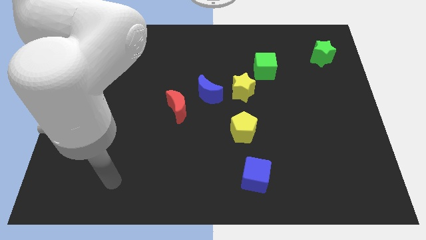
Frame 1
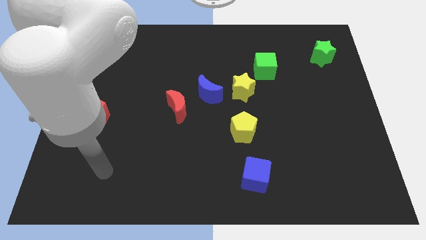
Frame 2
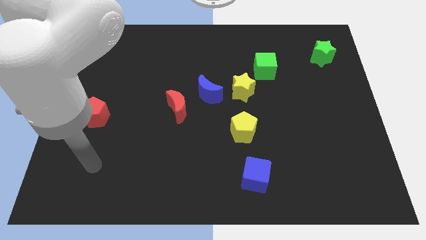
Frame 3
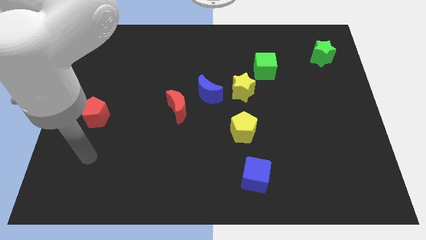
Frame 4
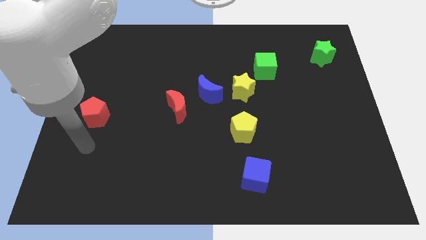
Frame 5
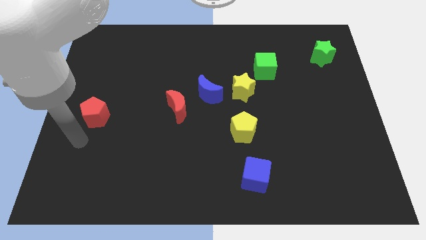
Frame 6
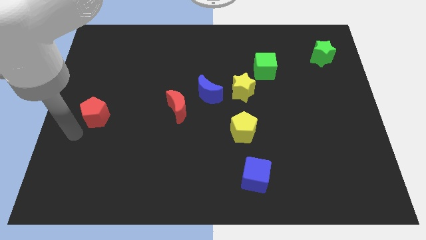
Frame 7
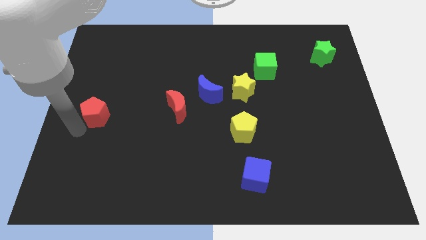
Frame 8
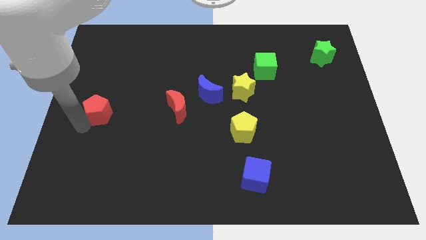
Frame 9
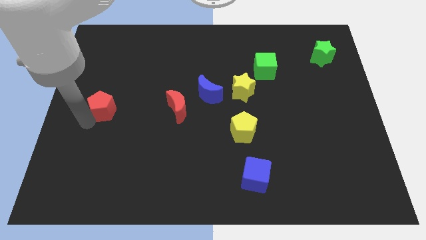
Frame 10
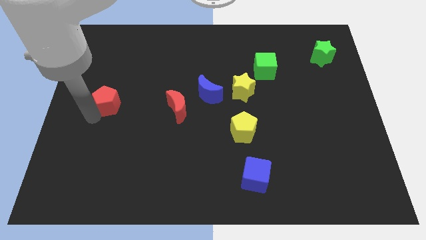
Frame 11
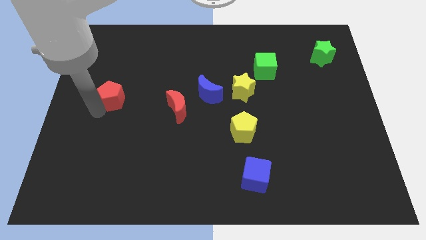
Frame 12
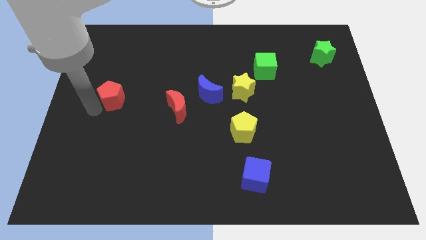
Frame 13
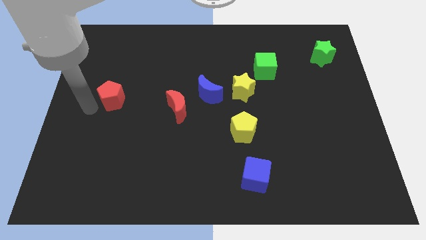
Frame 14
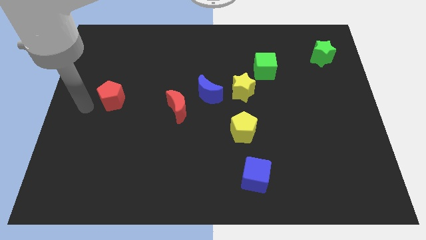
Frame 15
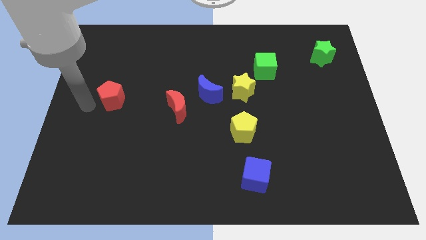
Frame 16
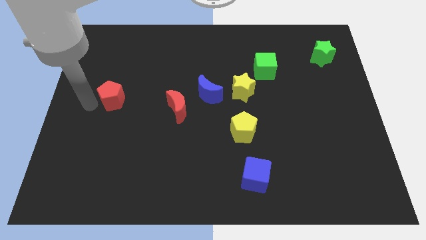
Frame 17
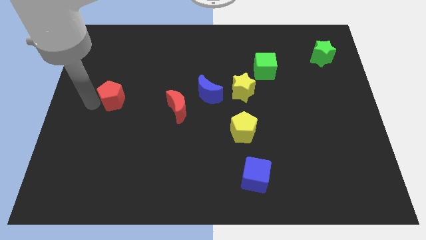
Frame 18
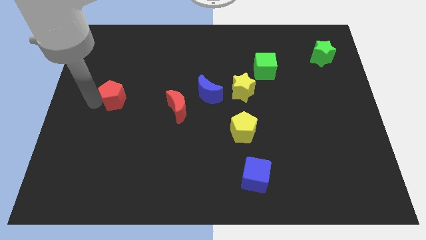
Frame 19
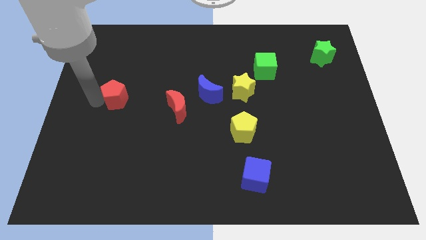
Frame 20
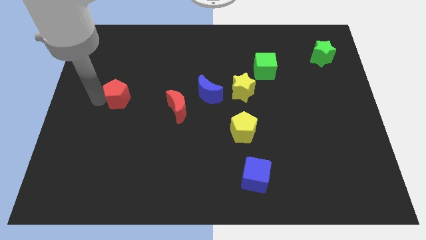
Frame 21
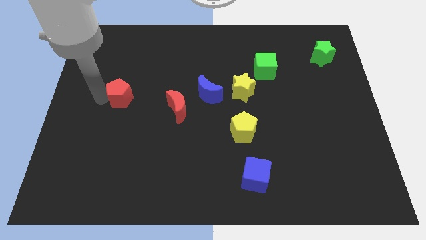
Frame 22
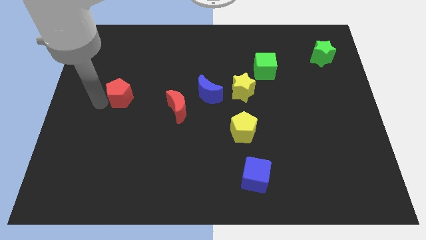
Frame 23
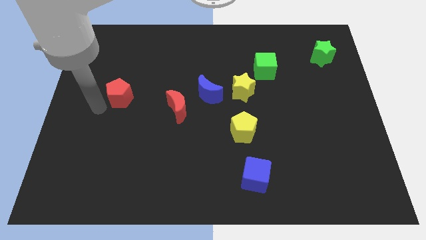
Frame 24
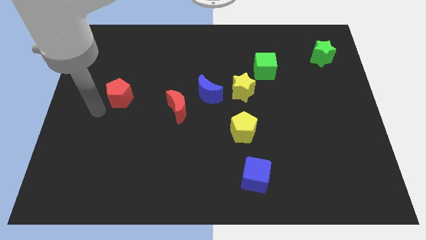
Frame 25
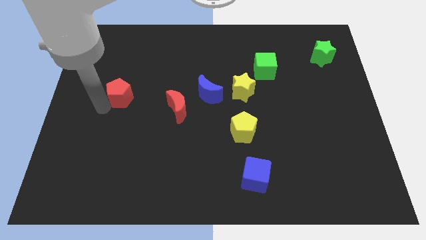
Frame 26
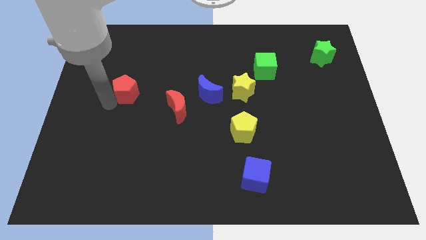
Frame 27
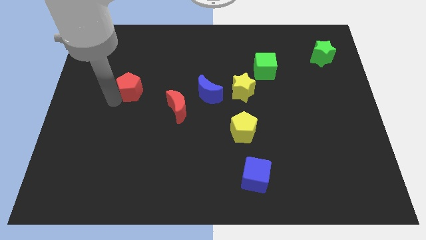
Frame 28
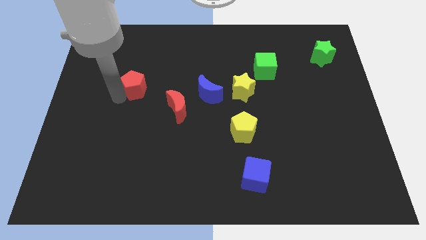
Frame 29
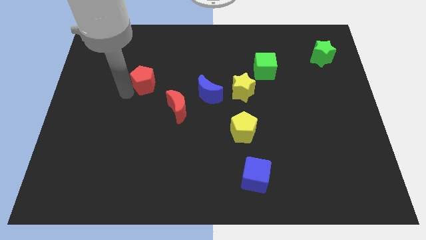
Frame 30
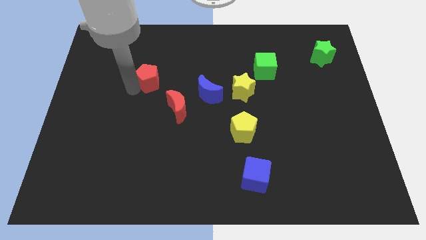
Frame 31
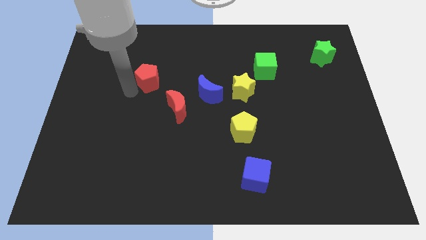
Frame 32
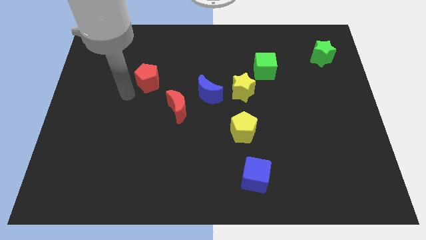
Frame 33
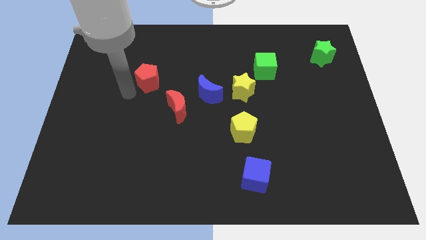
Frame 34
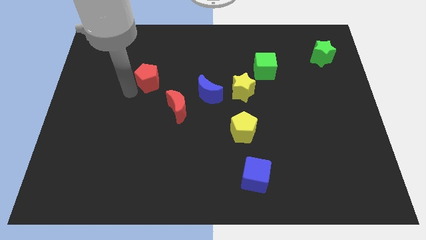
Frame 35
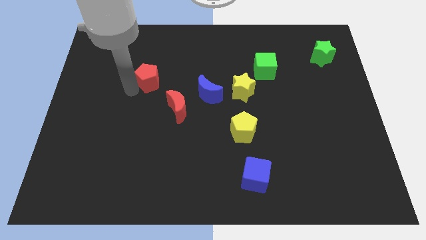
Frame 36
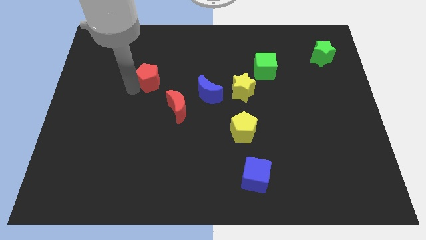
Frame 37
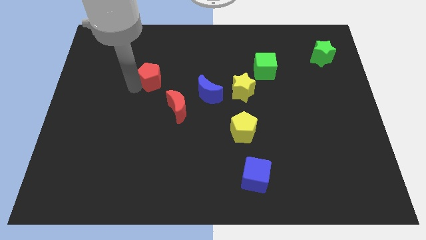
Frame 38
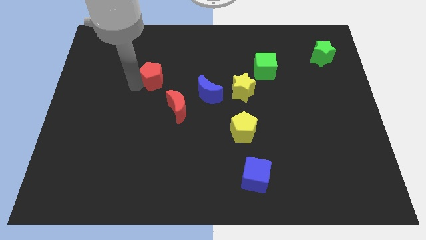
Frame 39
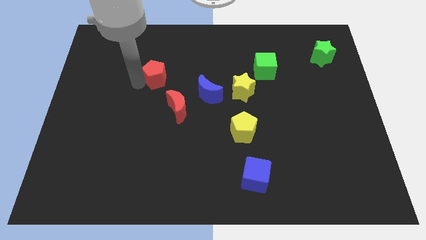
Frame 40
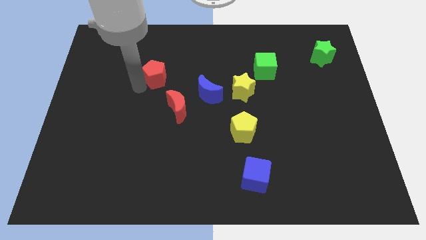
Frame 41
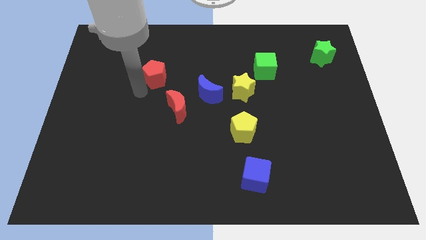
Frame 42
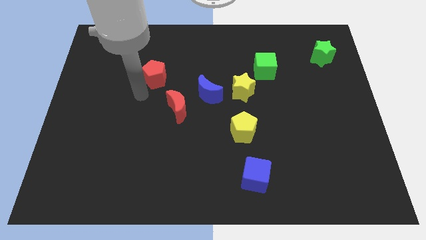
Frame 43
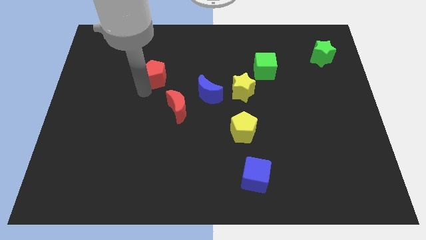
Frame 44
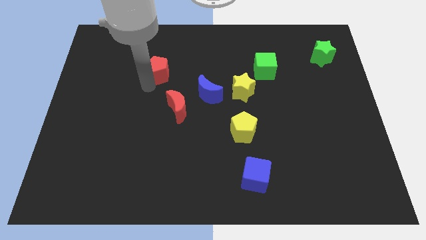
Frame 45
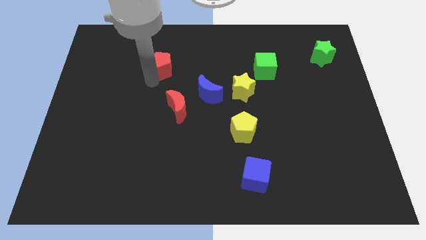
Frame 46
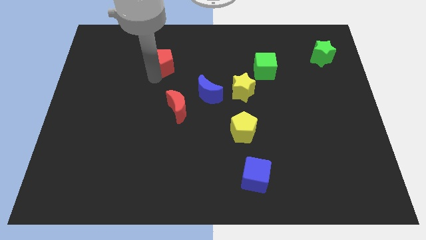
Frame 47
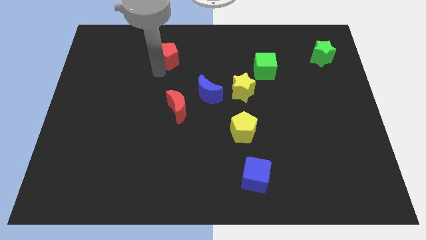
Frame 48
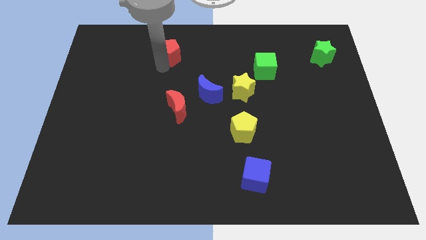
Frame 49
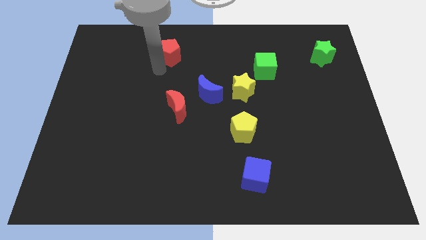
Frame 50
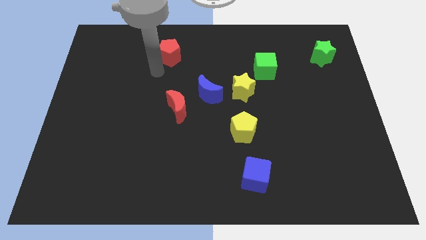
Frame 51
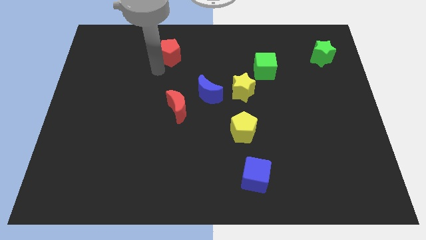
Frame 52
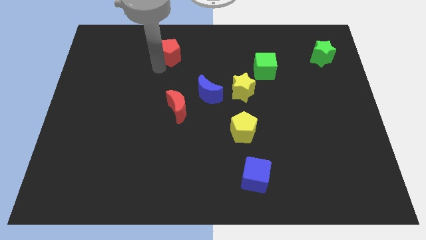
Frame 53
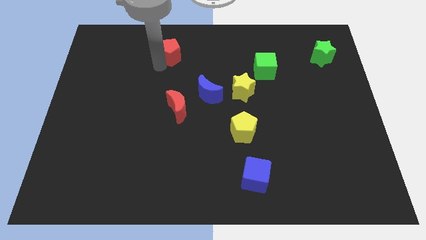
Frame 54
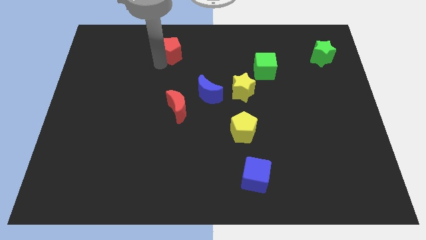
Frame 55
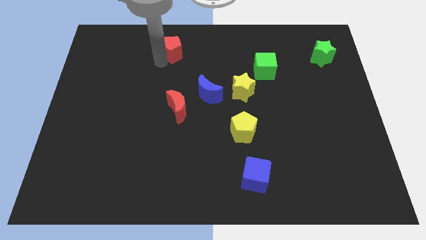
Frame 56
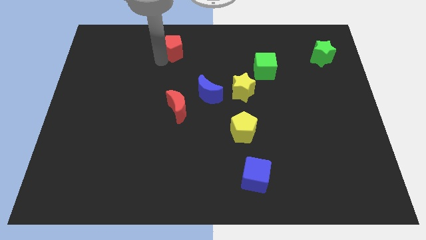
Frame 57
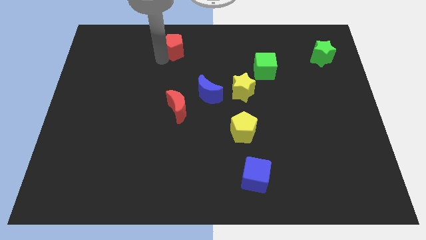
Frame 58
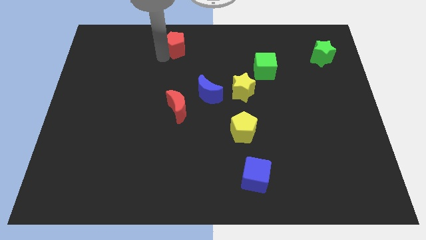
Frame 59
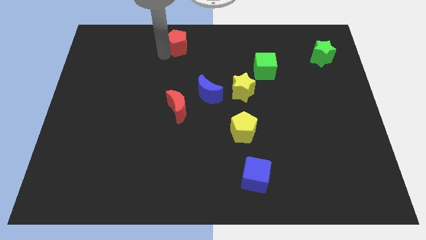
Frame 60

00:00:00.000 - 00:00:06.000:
move the red pentagon to the towards your base
